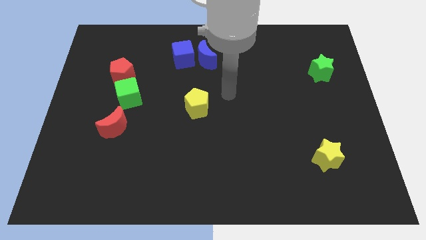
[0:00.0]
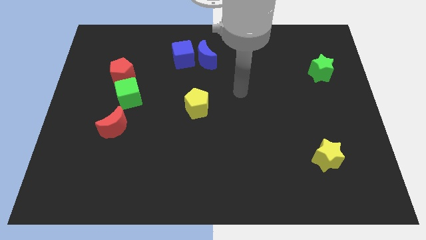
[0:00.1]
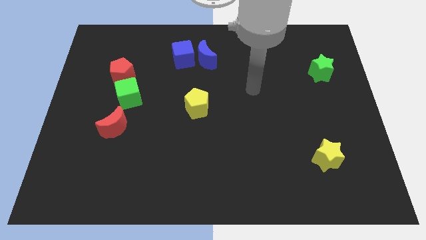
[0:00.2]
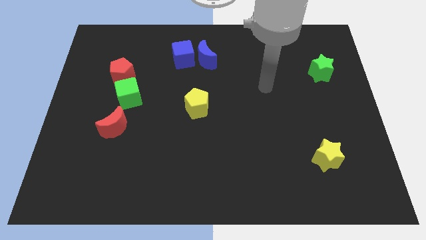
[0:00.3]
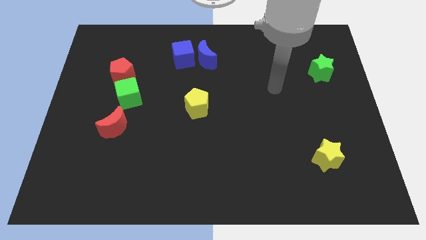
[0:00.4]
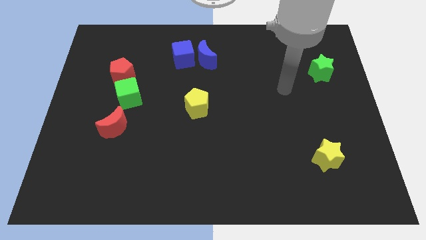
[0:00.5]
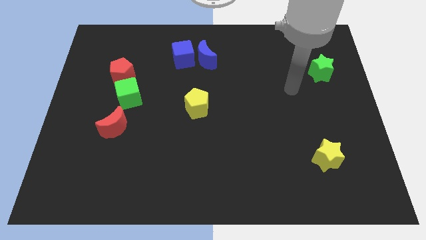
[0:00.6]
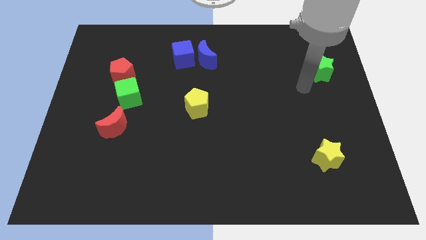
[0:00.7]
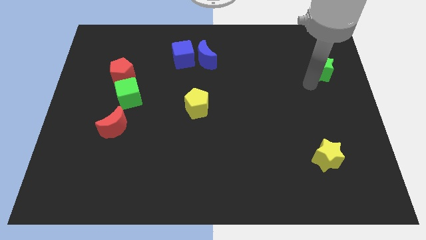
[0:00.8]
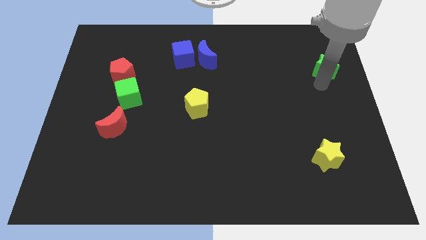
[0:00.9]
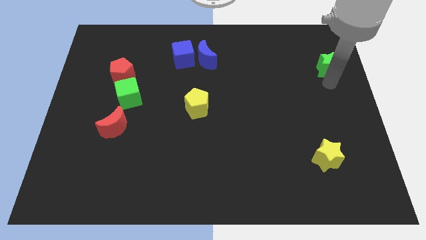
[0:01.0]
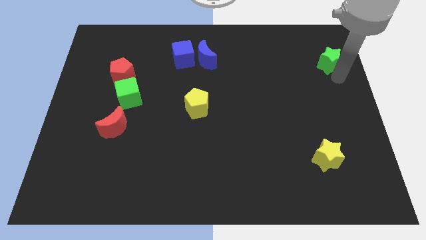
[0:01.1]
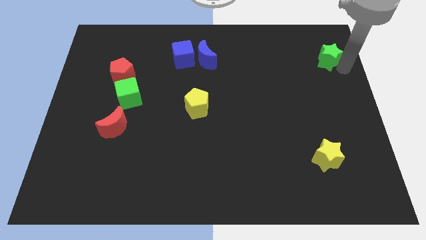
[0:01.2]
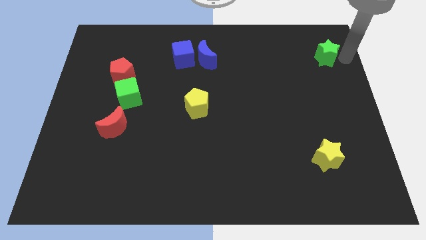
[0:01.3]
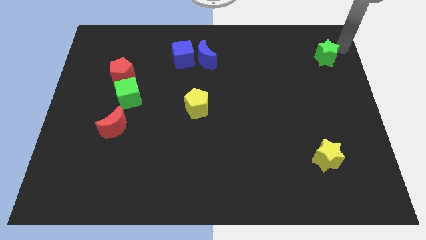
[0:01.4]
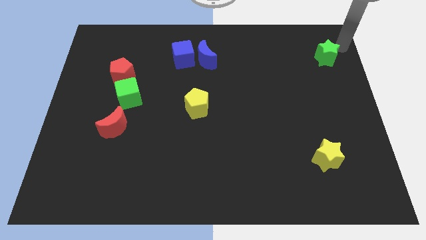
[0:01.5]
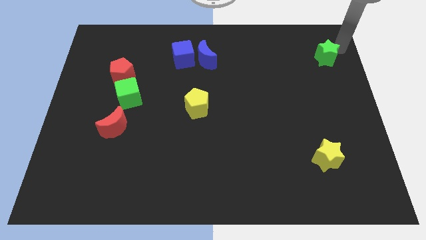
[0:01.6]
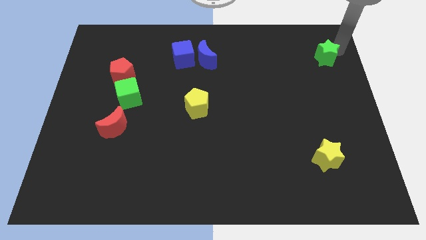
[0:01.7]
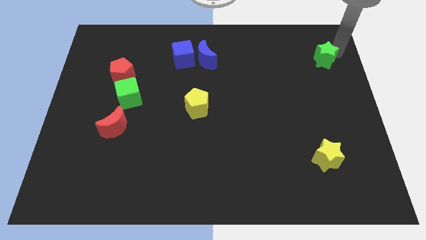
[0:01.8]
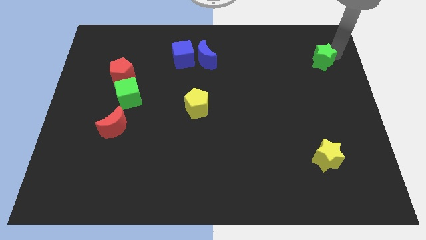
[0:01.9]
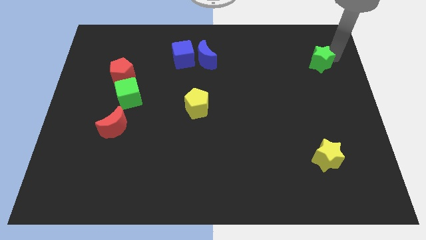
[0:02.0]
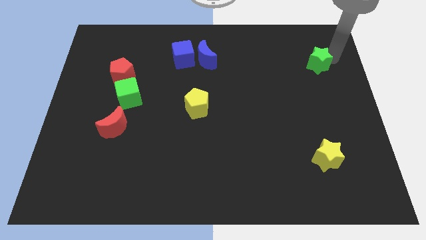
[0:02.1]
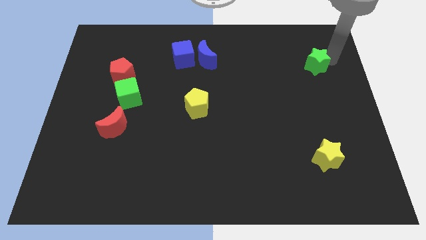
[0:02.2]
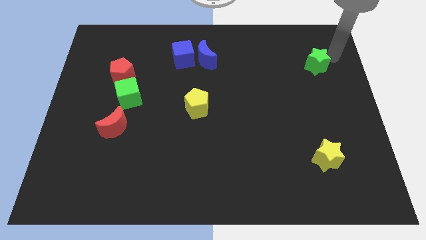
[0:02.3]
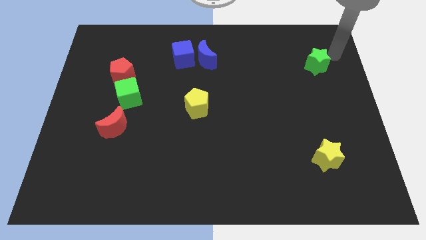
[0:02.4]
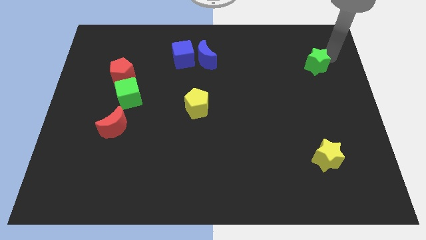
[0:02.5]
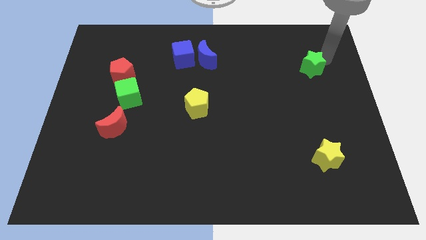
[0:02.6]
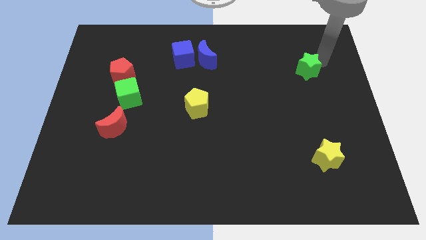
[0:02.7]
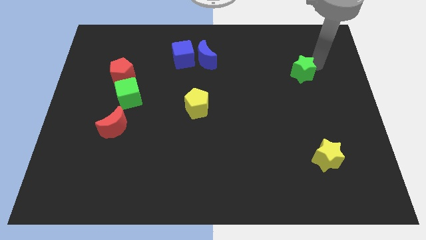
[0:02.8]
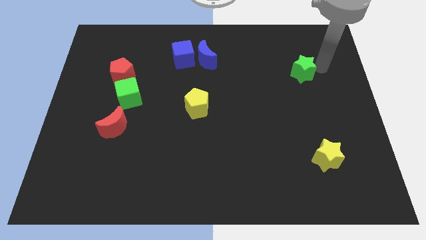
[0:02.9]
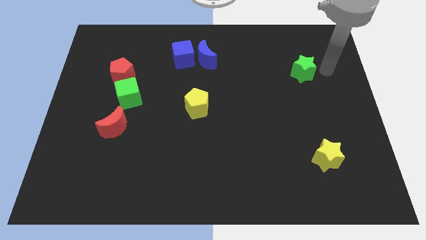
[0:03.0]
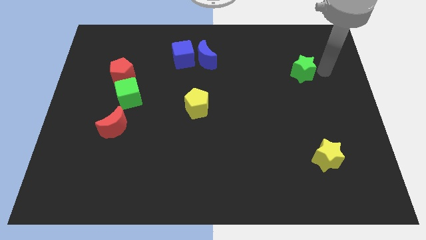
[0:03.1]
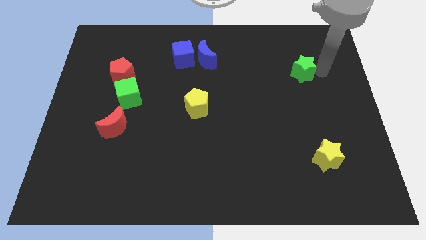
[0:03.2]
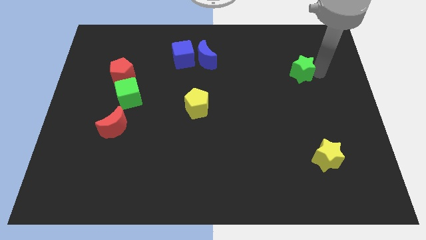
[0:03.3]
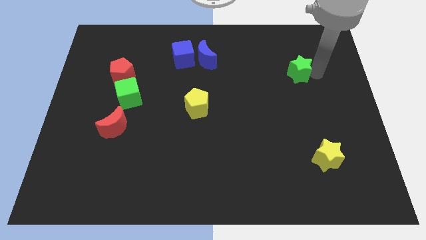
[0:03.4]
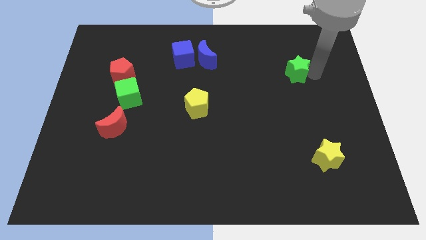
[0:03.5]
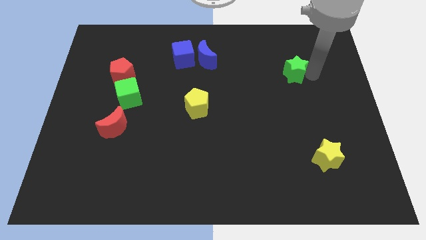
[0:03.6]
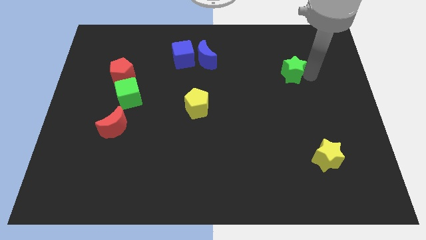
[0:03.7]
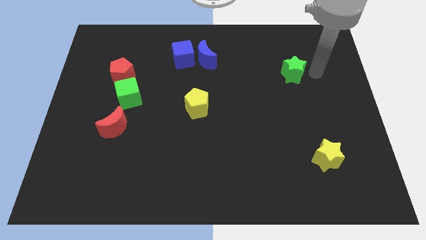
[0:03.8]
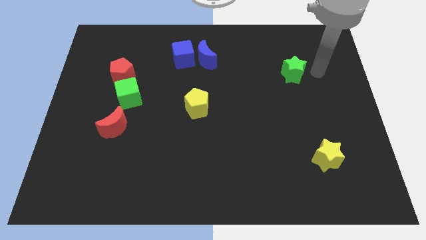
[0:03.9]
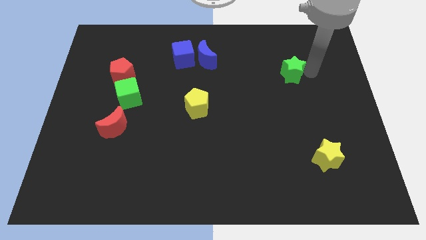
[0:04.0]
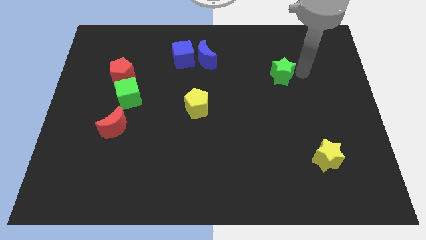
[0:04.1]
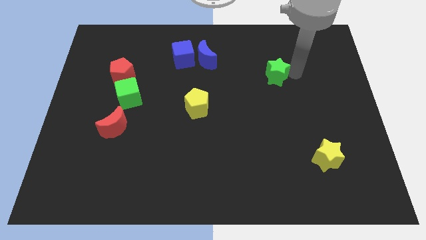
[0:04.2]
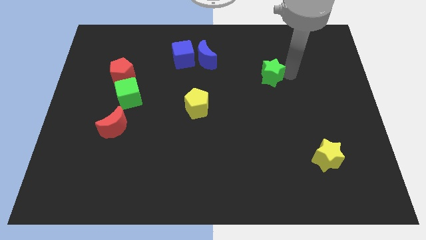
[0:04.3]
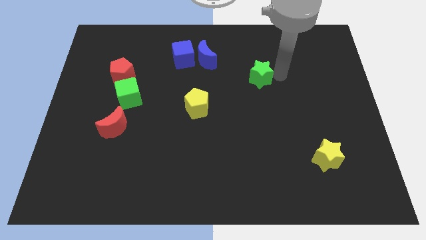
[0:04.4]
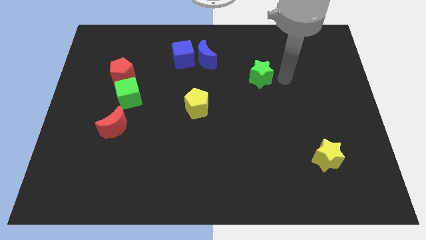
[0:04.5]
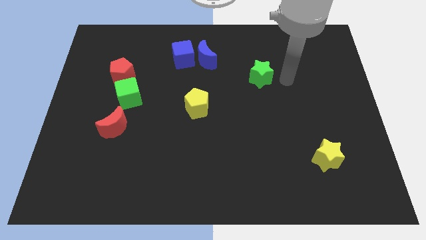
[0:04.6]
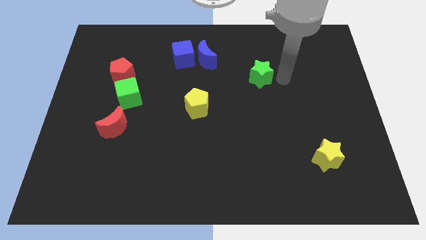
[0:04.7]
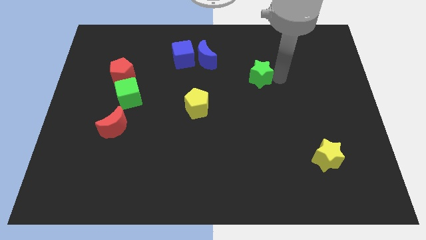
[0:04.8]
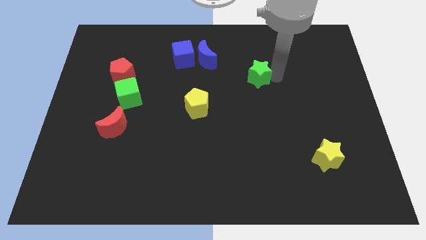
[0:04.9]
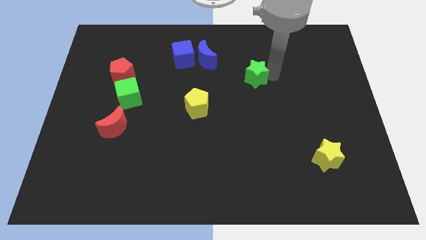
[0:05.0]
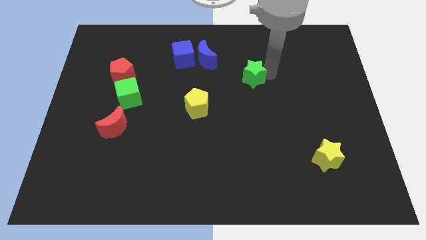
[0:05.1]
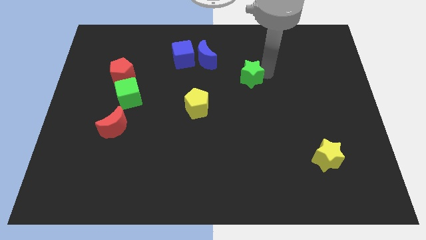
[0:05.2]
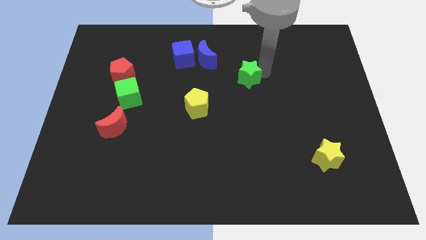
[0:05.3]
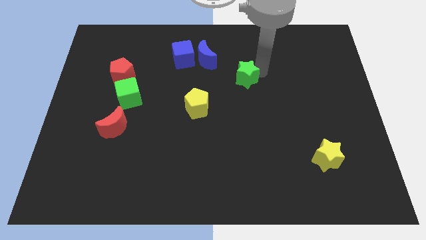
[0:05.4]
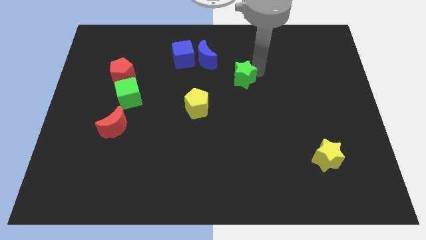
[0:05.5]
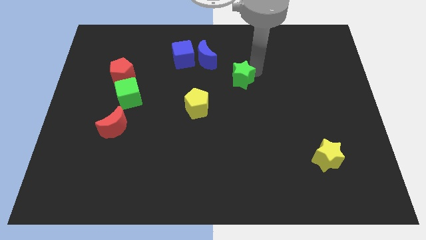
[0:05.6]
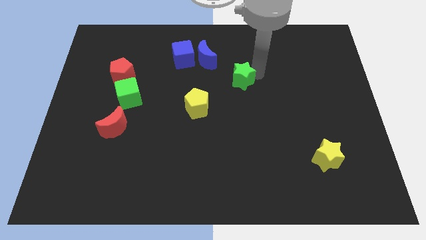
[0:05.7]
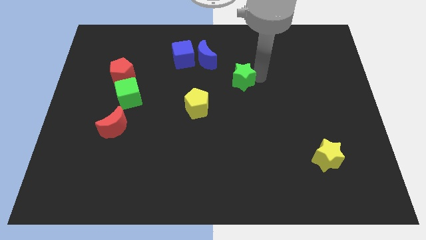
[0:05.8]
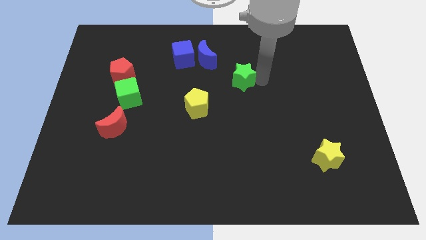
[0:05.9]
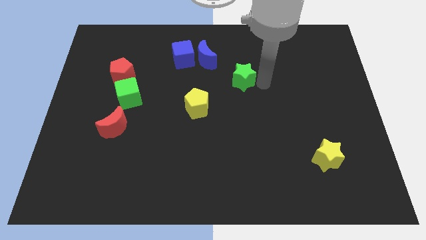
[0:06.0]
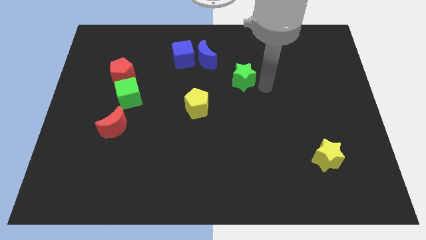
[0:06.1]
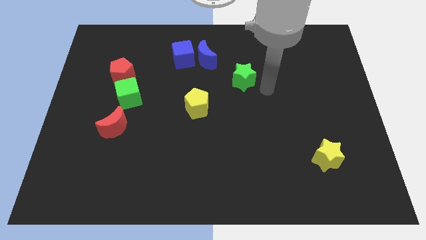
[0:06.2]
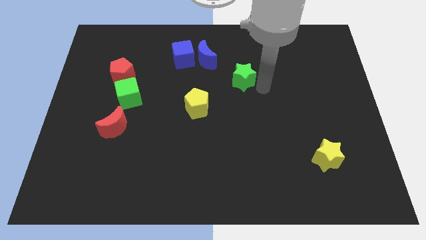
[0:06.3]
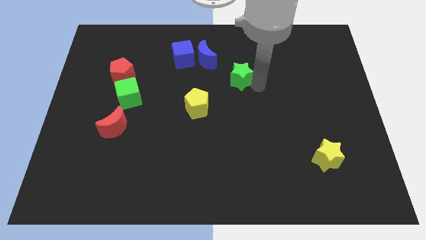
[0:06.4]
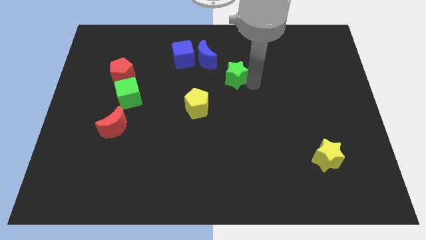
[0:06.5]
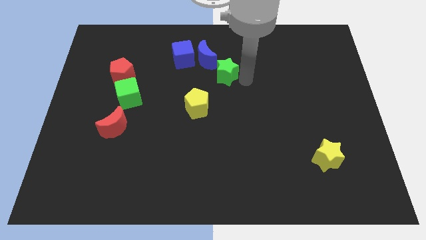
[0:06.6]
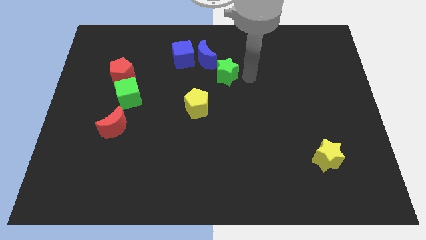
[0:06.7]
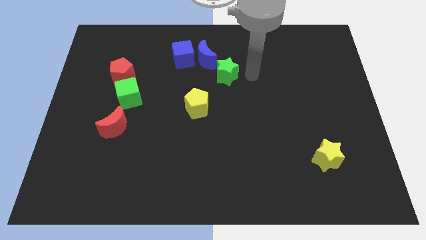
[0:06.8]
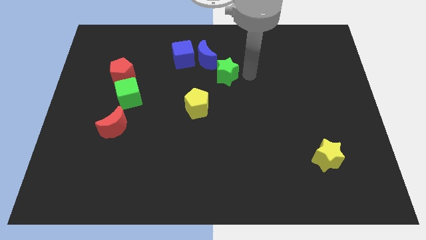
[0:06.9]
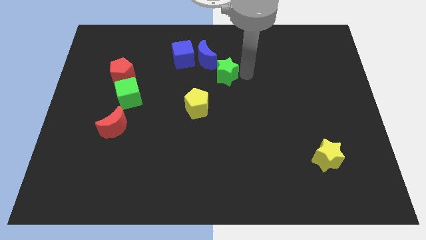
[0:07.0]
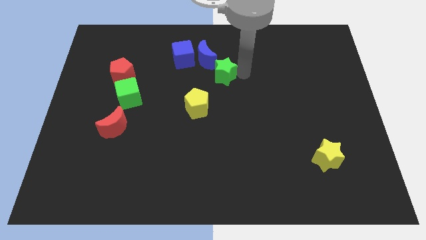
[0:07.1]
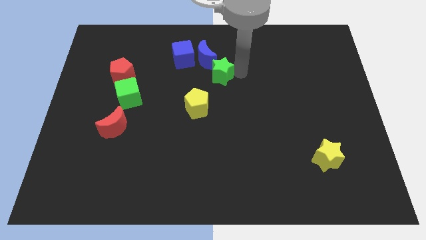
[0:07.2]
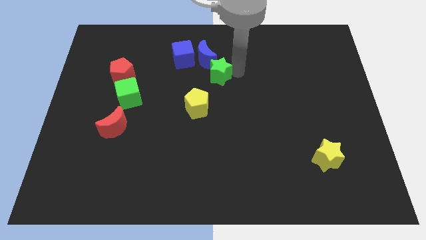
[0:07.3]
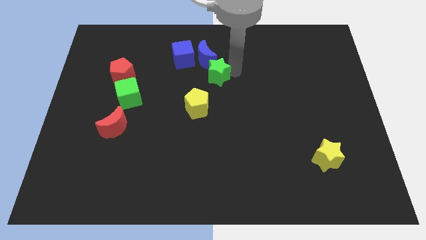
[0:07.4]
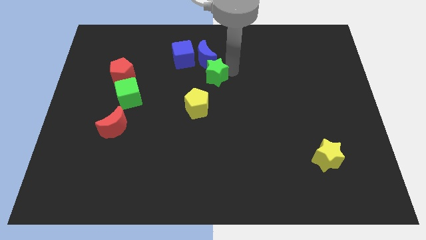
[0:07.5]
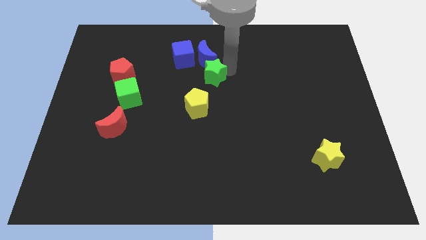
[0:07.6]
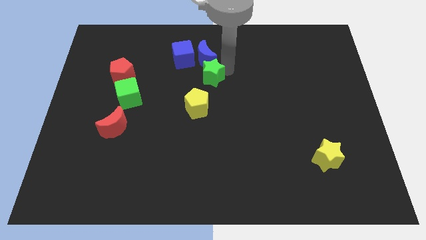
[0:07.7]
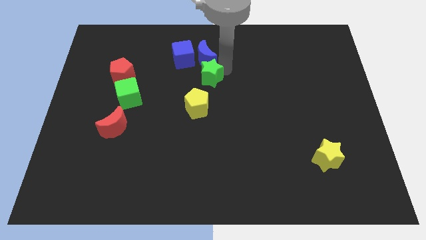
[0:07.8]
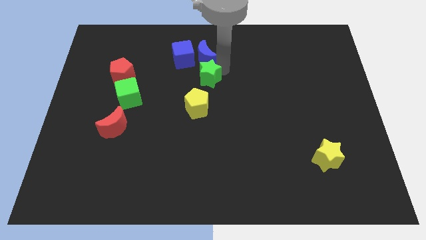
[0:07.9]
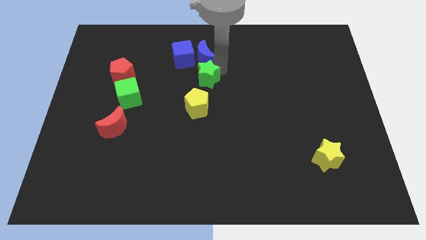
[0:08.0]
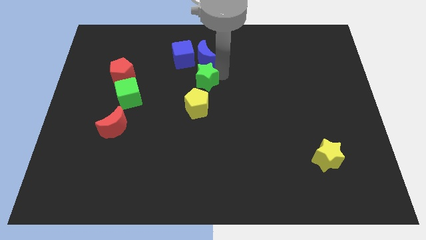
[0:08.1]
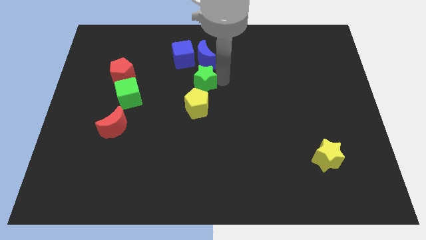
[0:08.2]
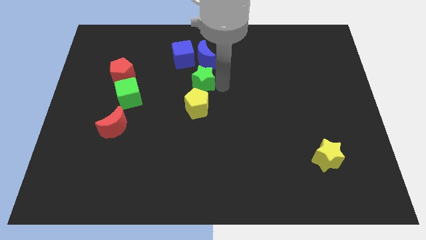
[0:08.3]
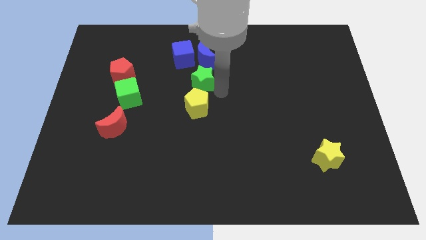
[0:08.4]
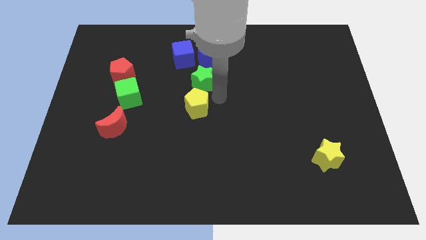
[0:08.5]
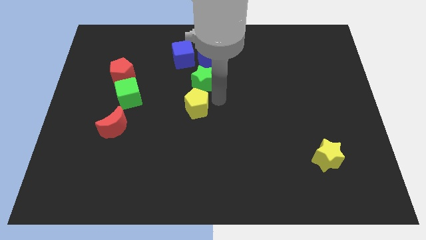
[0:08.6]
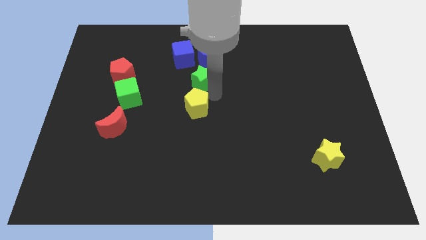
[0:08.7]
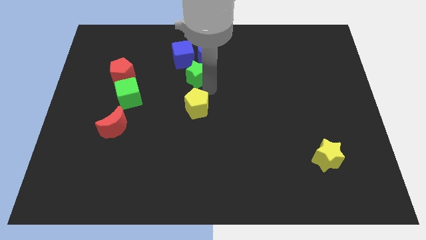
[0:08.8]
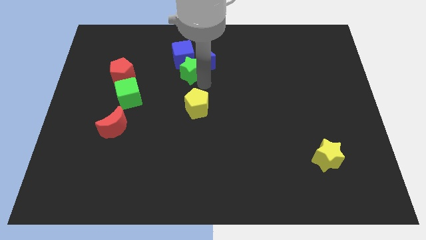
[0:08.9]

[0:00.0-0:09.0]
move the green star next to the blue cube
